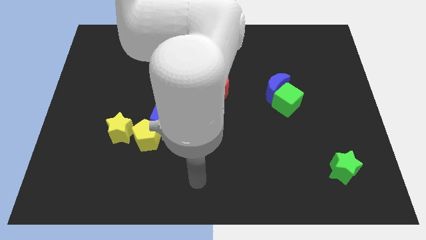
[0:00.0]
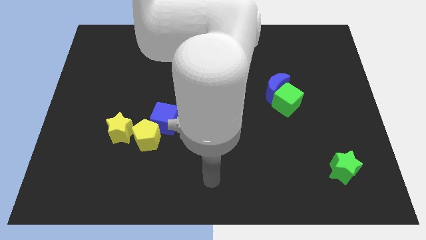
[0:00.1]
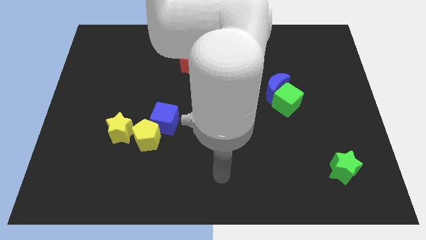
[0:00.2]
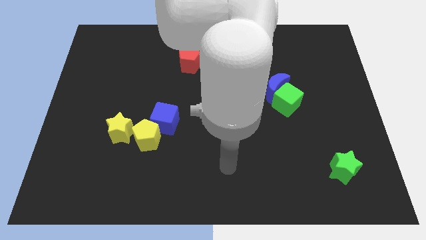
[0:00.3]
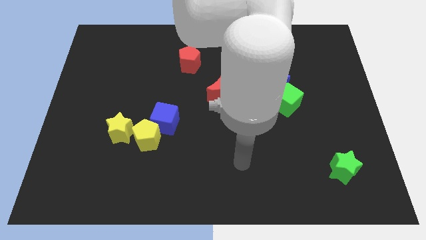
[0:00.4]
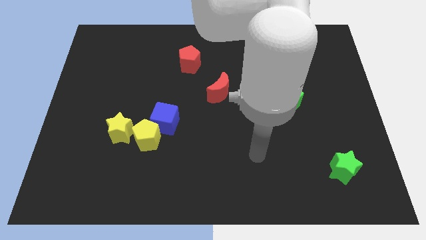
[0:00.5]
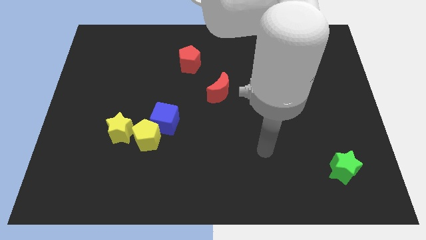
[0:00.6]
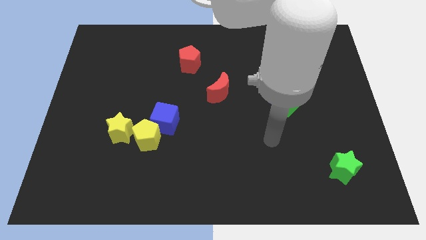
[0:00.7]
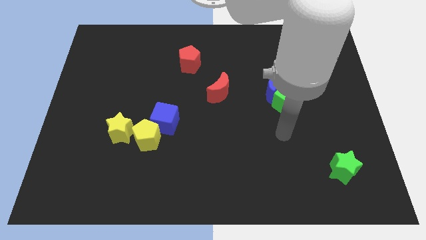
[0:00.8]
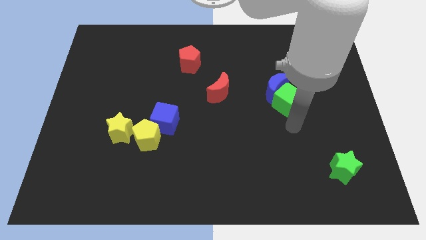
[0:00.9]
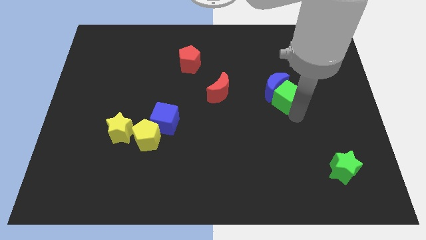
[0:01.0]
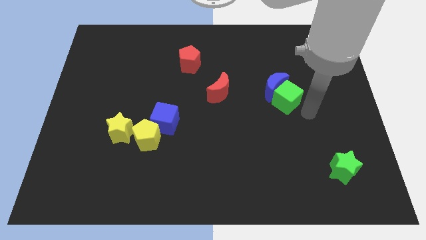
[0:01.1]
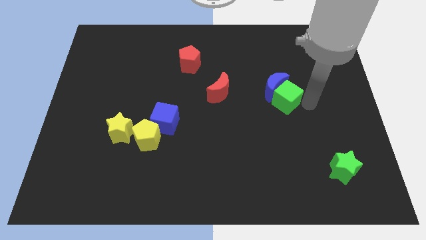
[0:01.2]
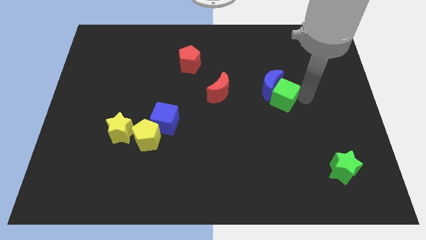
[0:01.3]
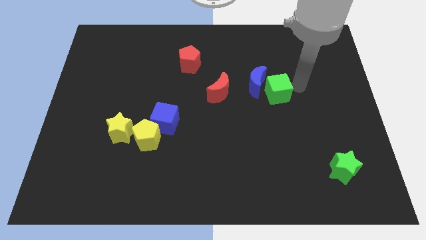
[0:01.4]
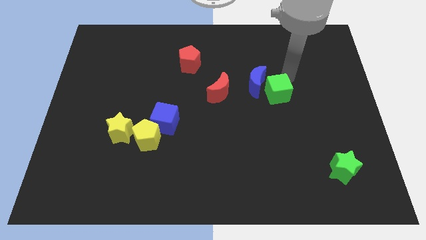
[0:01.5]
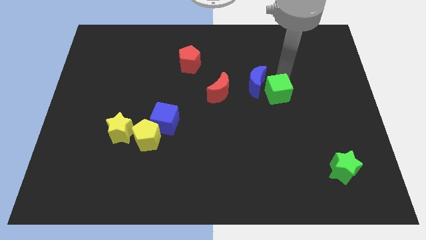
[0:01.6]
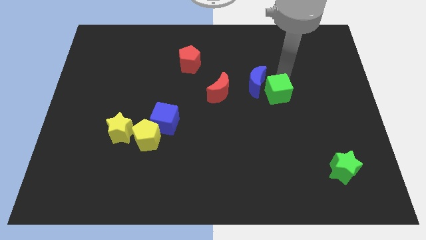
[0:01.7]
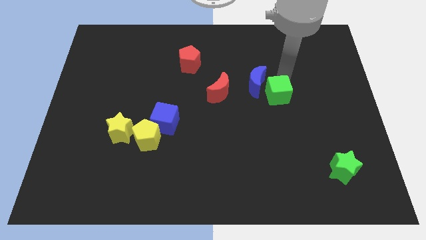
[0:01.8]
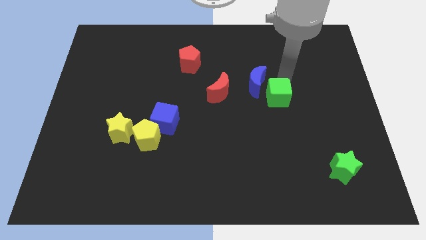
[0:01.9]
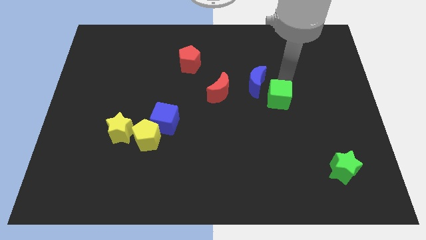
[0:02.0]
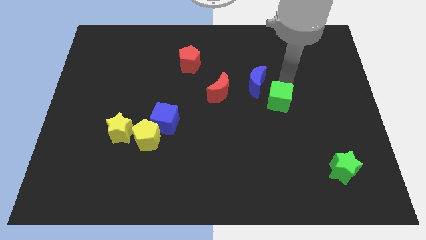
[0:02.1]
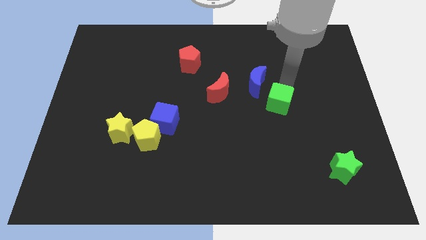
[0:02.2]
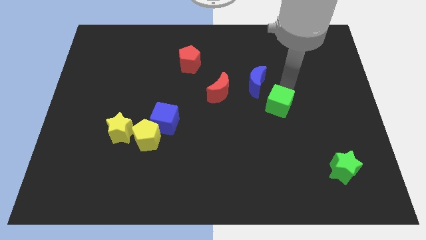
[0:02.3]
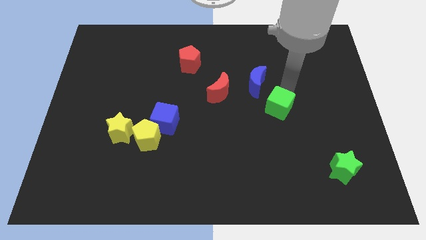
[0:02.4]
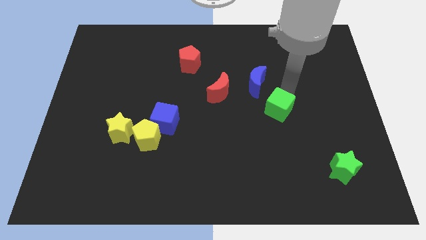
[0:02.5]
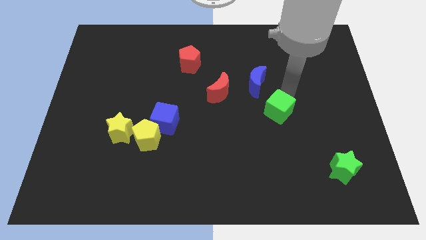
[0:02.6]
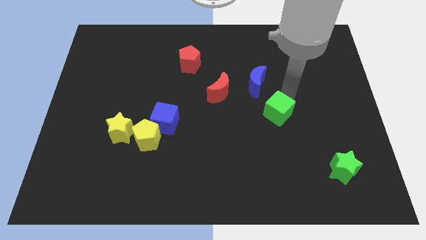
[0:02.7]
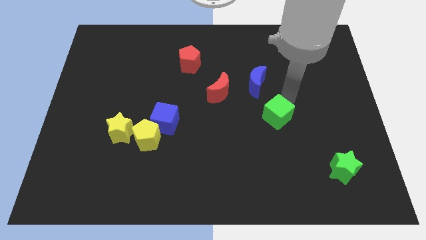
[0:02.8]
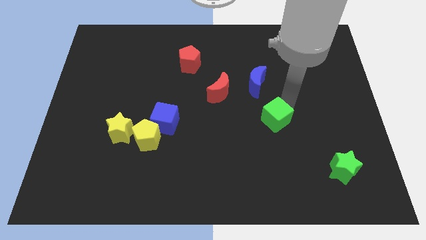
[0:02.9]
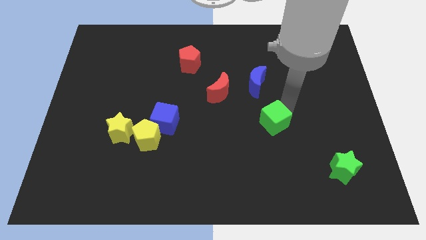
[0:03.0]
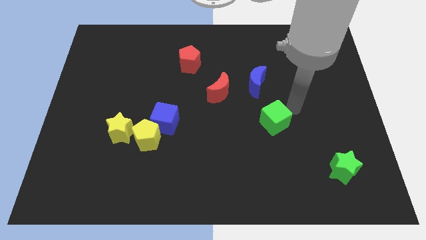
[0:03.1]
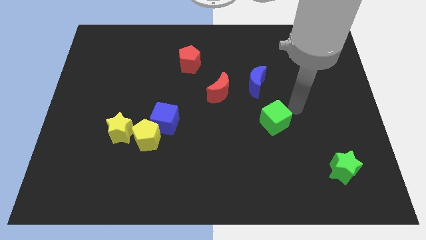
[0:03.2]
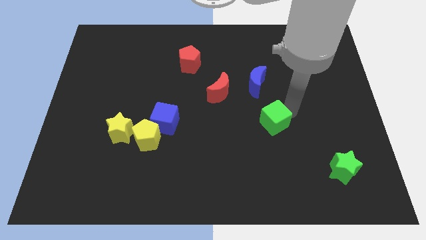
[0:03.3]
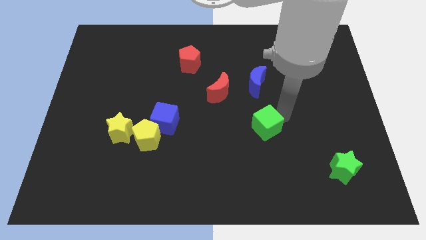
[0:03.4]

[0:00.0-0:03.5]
push the green cube downwards and to the left a little bit

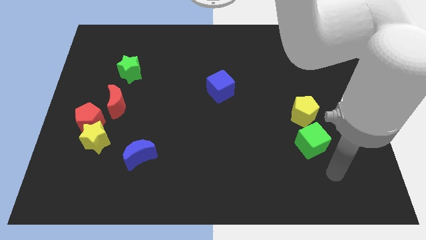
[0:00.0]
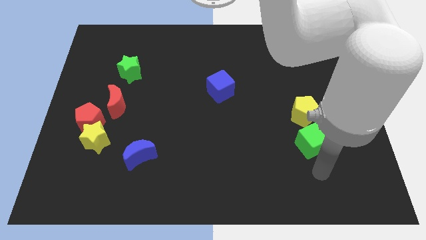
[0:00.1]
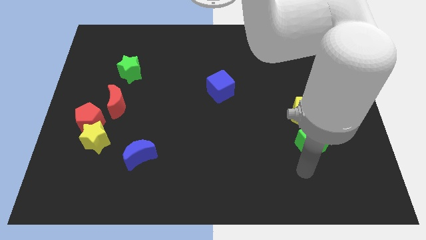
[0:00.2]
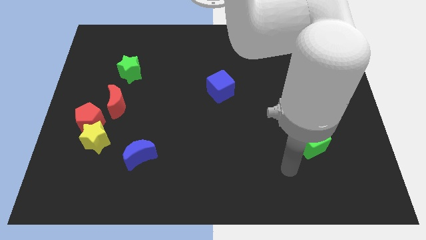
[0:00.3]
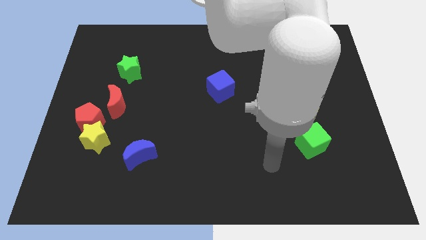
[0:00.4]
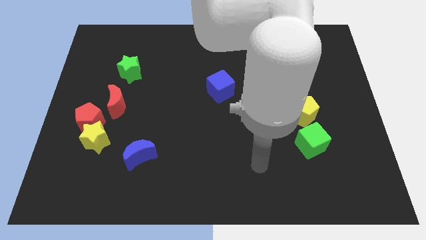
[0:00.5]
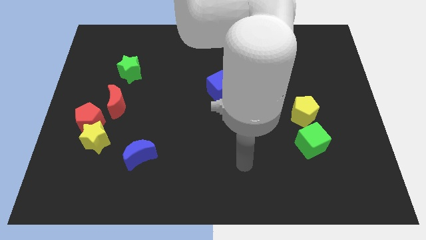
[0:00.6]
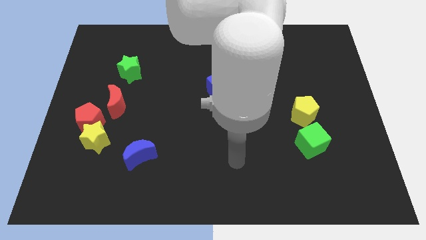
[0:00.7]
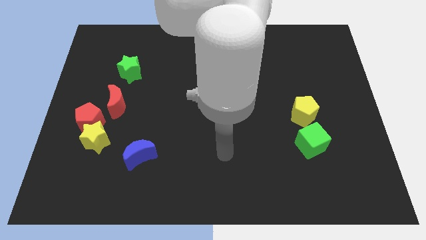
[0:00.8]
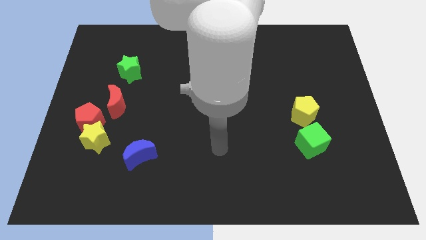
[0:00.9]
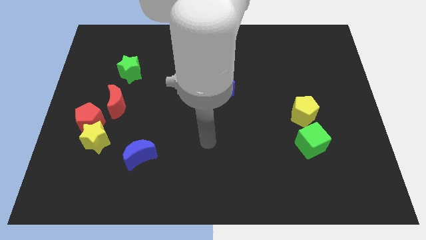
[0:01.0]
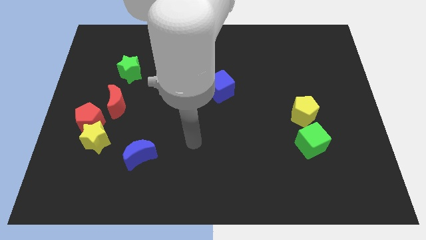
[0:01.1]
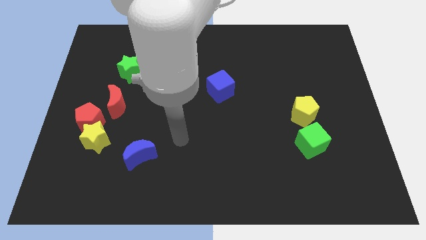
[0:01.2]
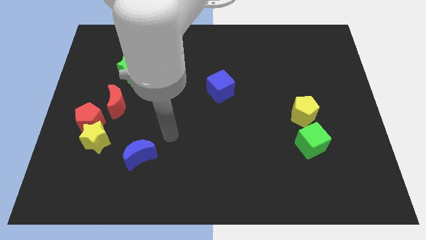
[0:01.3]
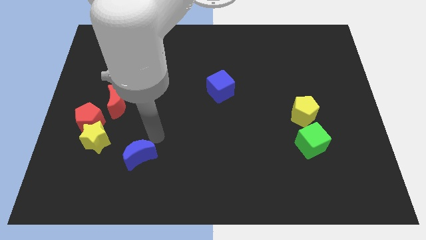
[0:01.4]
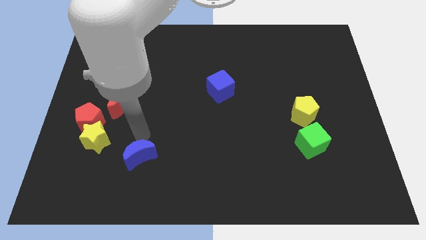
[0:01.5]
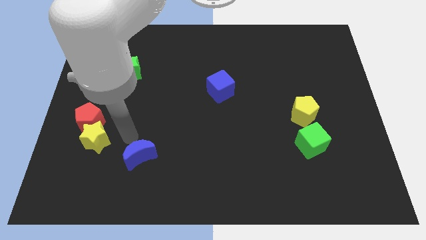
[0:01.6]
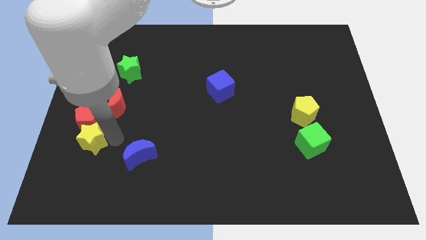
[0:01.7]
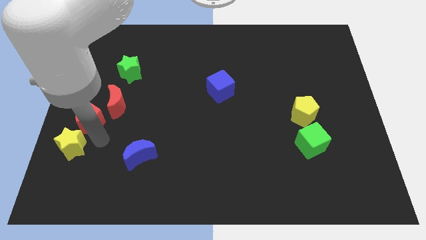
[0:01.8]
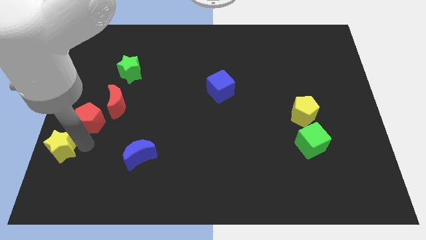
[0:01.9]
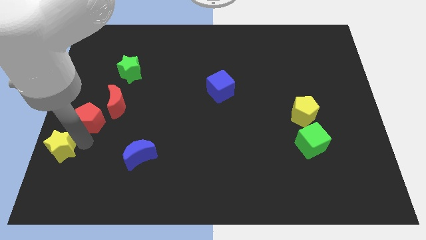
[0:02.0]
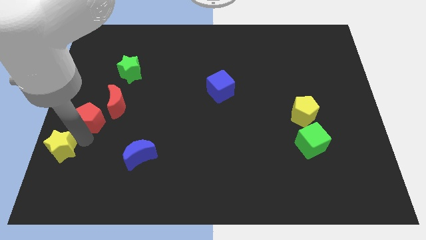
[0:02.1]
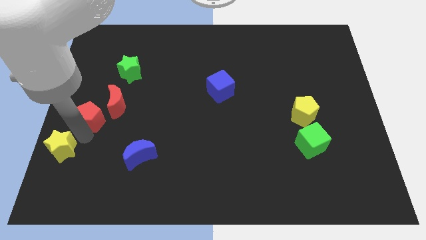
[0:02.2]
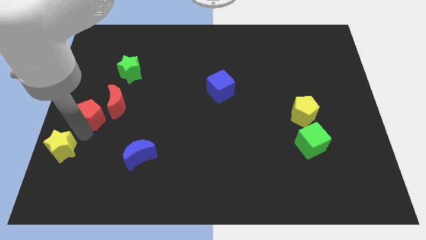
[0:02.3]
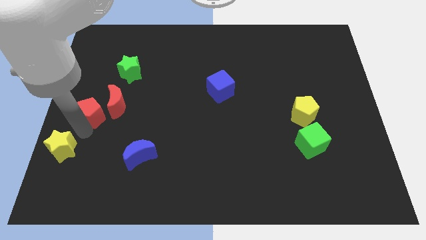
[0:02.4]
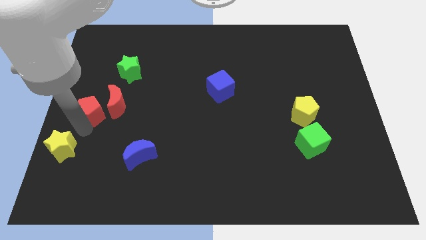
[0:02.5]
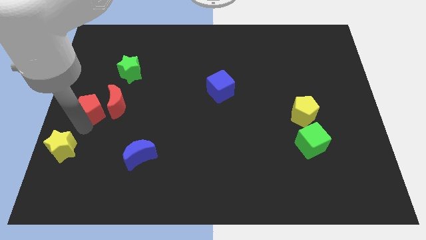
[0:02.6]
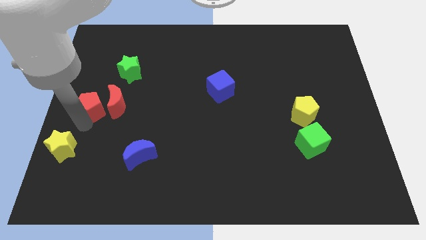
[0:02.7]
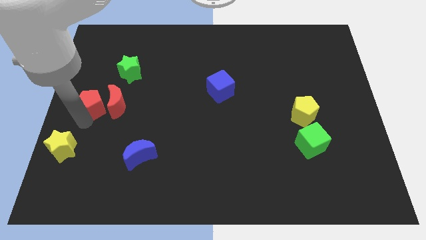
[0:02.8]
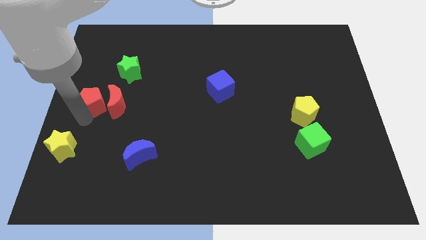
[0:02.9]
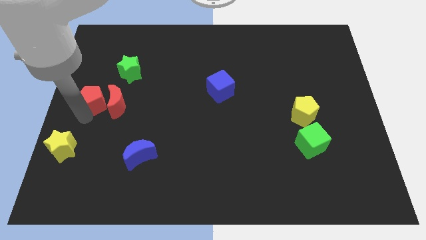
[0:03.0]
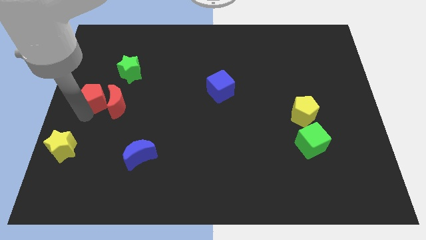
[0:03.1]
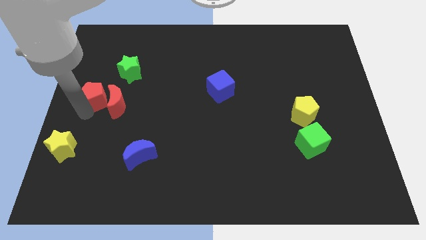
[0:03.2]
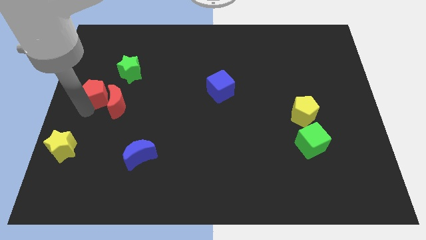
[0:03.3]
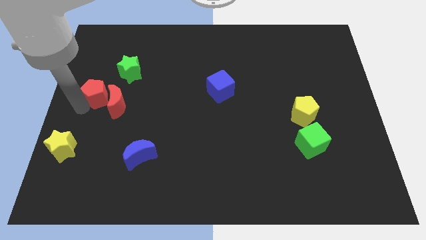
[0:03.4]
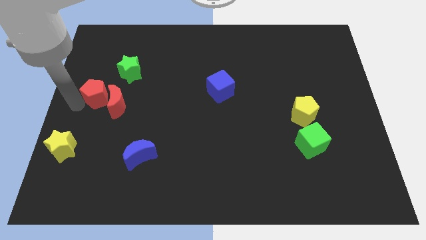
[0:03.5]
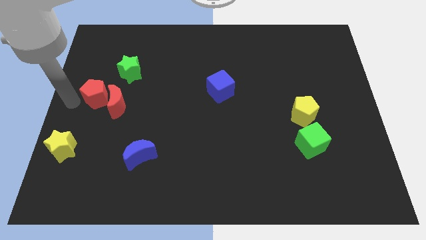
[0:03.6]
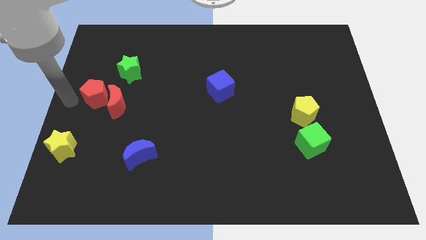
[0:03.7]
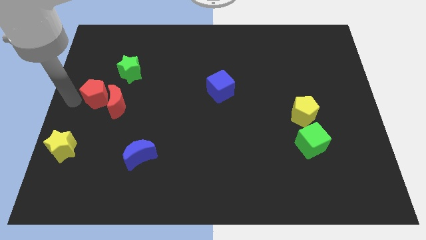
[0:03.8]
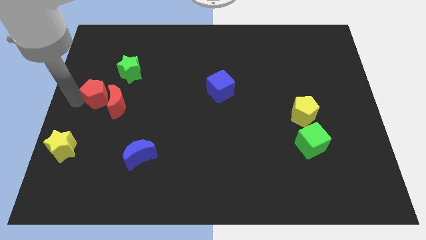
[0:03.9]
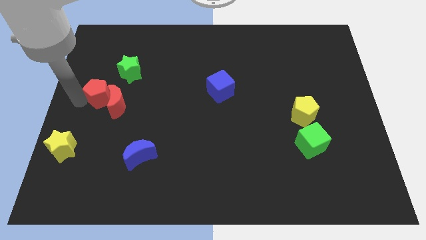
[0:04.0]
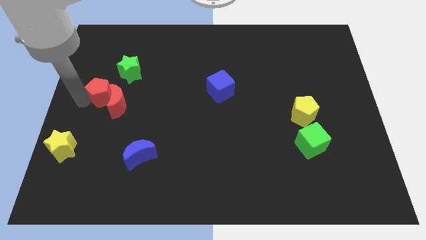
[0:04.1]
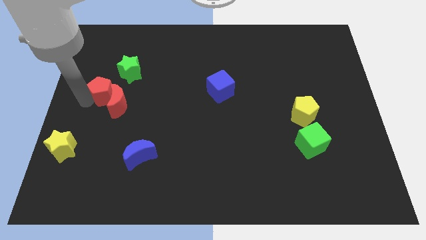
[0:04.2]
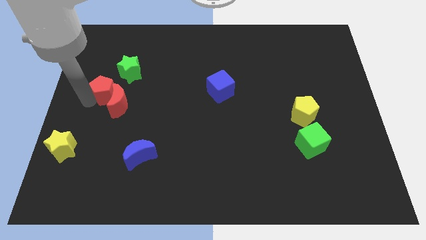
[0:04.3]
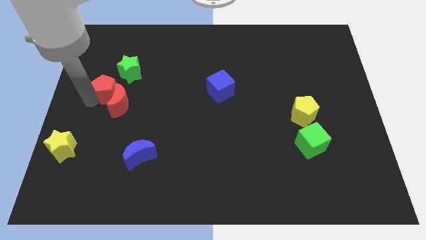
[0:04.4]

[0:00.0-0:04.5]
push the red pentagon diagonally up and to the right a bit
